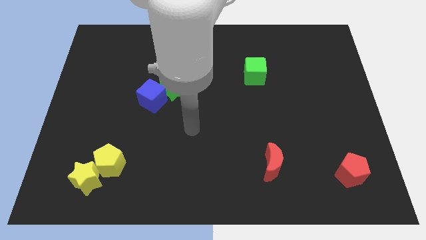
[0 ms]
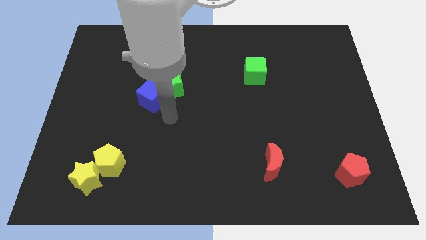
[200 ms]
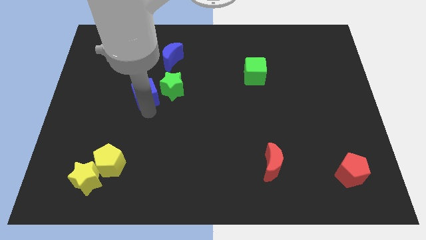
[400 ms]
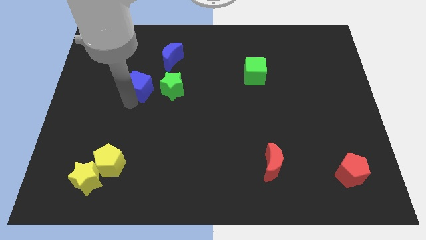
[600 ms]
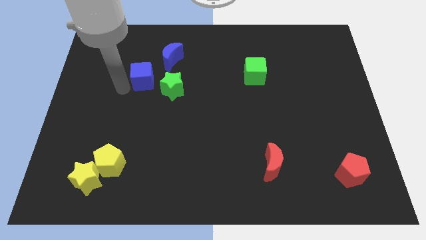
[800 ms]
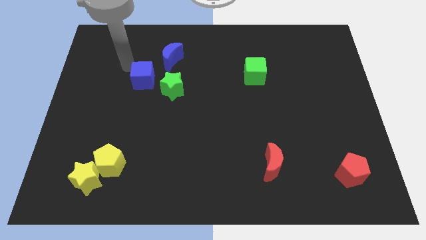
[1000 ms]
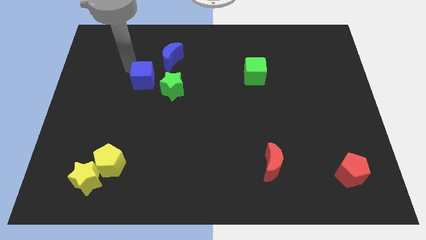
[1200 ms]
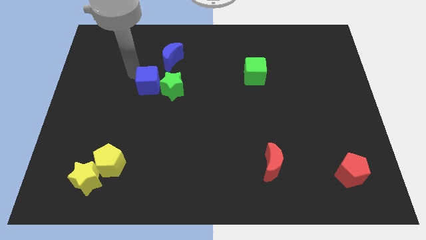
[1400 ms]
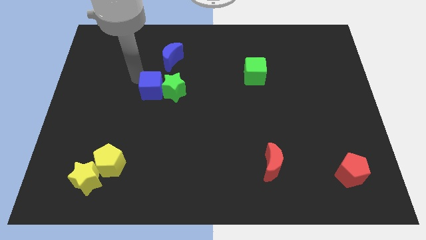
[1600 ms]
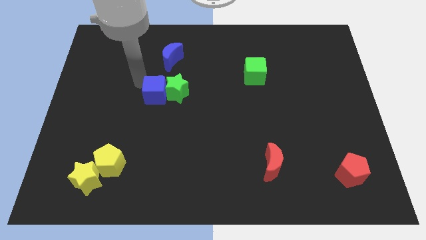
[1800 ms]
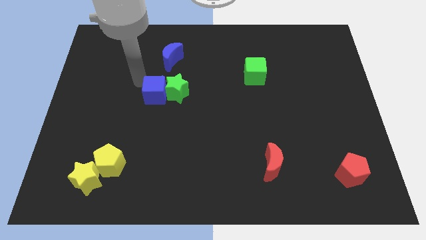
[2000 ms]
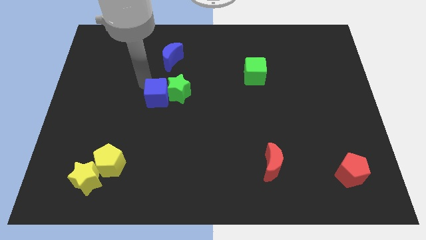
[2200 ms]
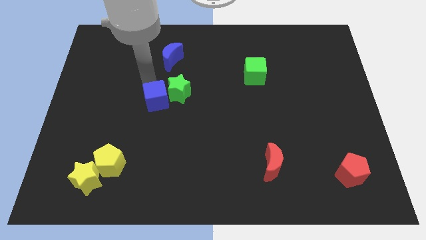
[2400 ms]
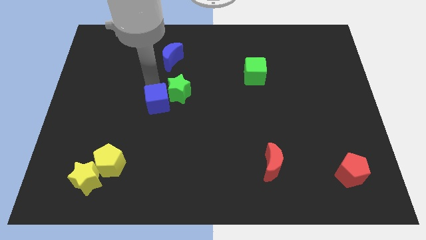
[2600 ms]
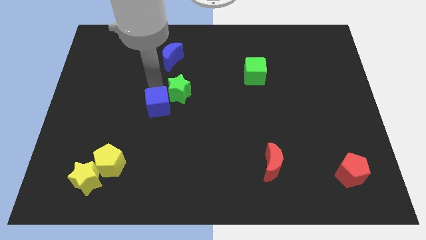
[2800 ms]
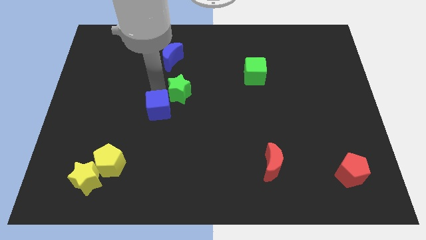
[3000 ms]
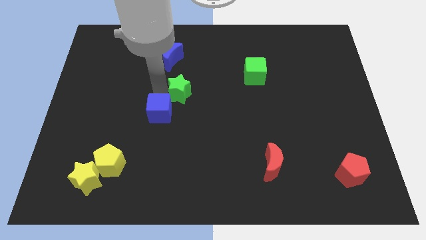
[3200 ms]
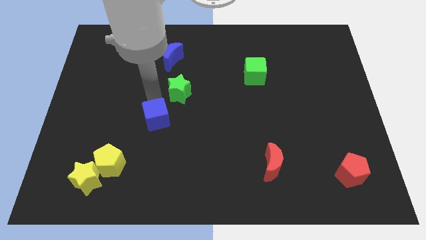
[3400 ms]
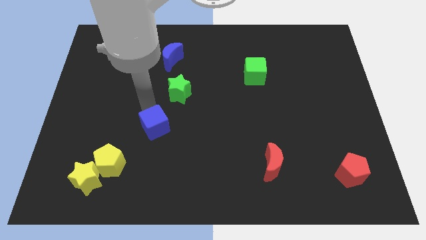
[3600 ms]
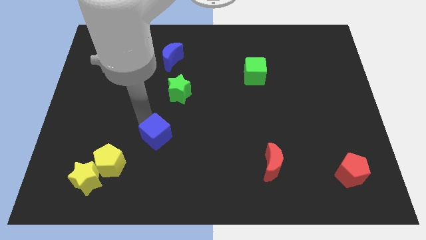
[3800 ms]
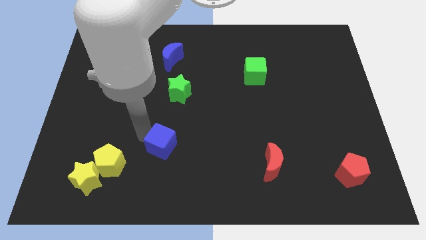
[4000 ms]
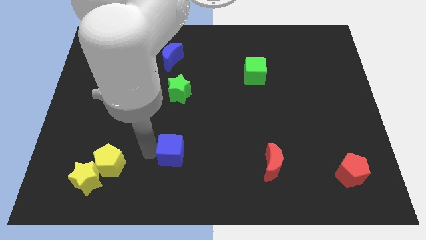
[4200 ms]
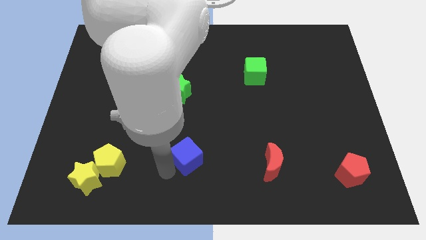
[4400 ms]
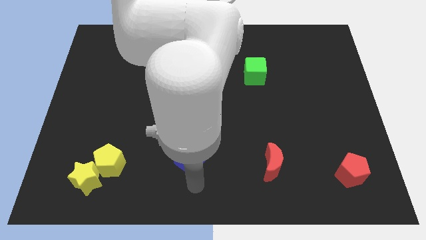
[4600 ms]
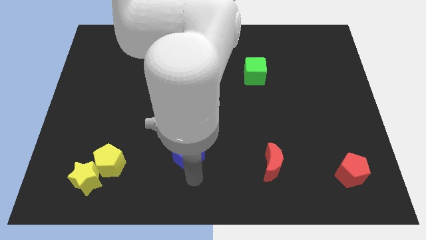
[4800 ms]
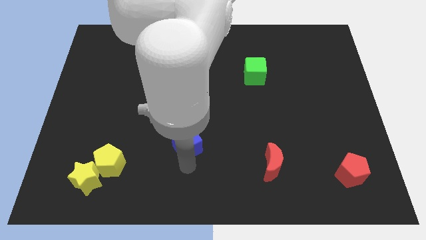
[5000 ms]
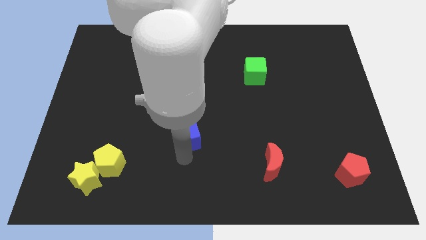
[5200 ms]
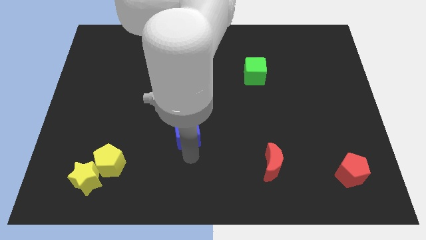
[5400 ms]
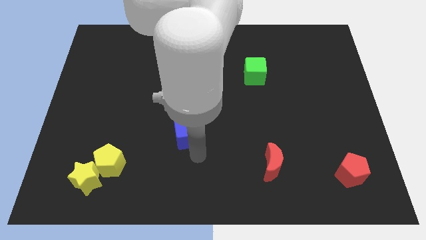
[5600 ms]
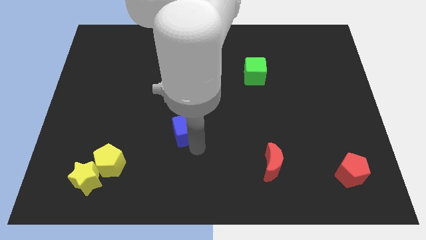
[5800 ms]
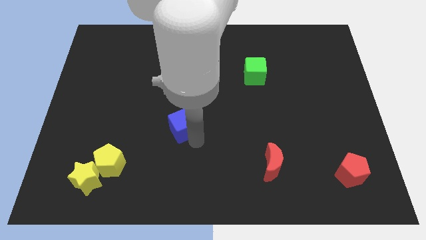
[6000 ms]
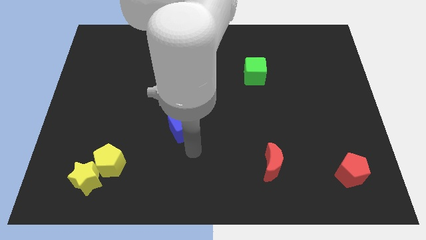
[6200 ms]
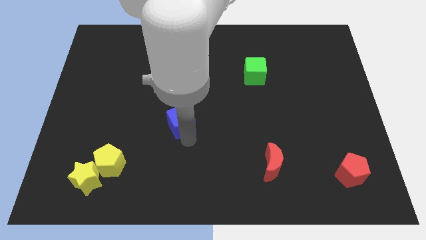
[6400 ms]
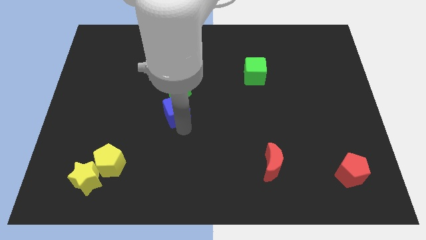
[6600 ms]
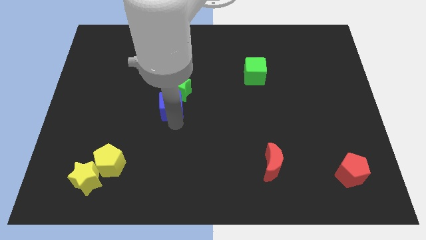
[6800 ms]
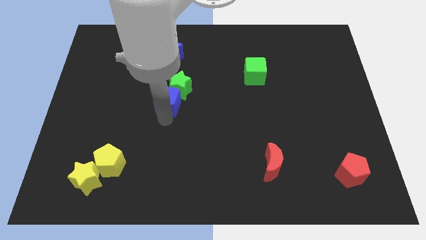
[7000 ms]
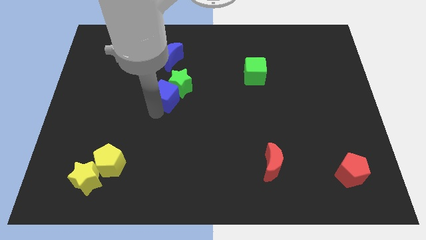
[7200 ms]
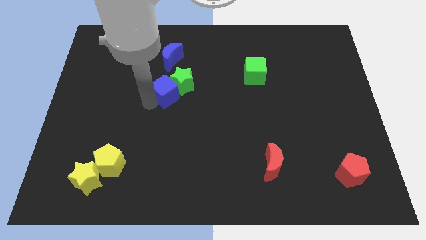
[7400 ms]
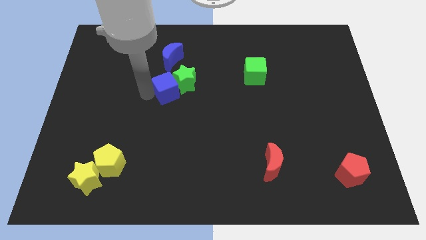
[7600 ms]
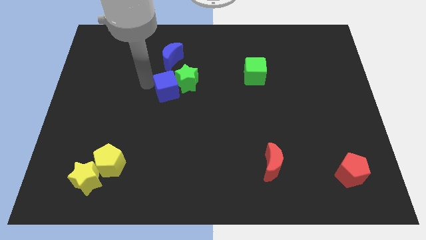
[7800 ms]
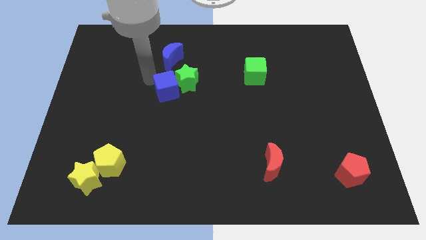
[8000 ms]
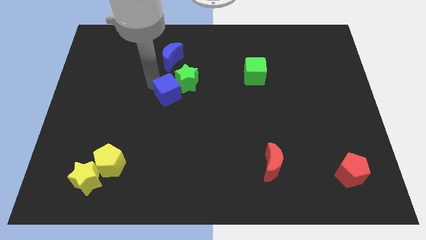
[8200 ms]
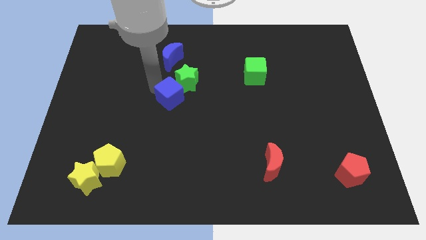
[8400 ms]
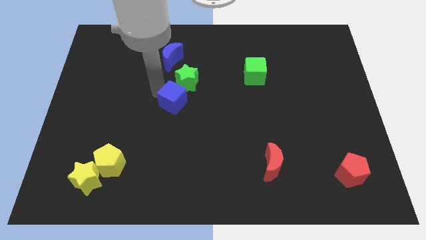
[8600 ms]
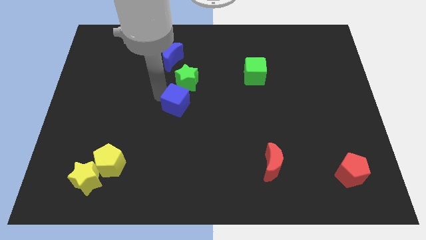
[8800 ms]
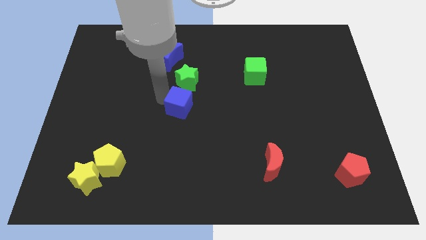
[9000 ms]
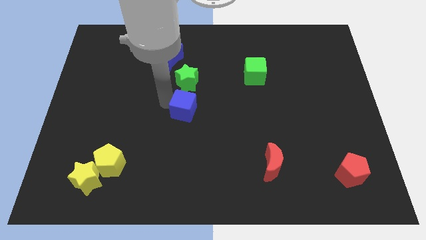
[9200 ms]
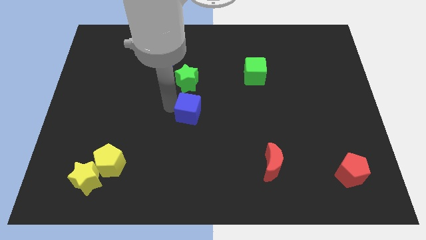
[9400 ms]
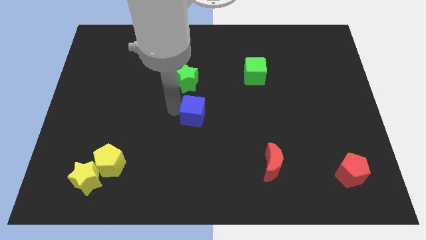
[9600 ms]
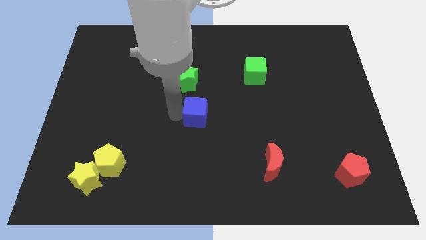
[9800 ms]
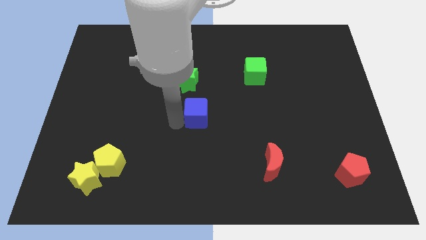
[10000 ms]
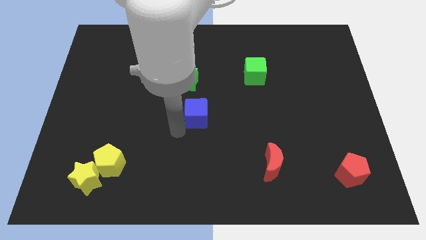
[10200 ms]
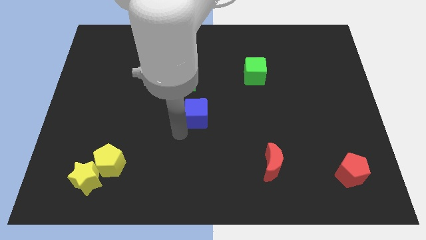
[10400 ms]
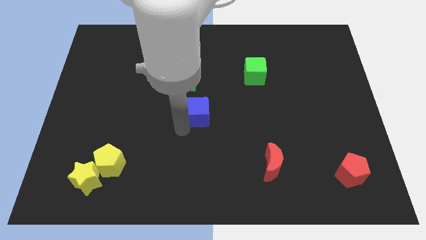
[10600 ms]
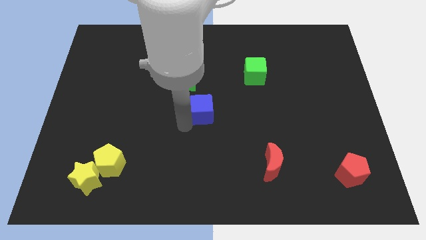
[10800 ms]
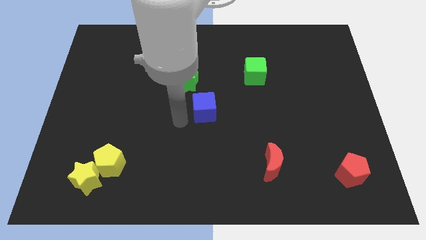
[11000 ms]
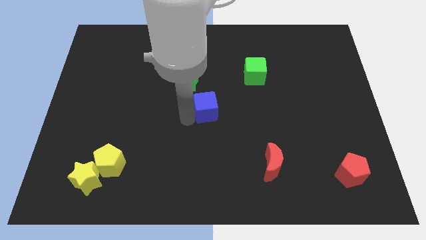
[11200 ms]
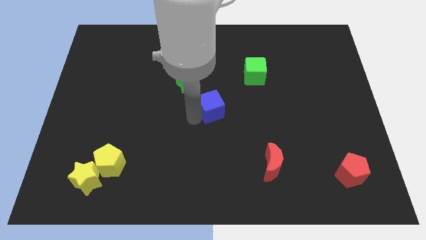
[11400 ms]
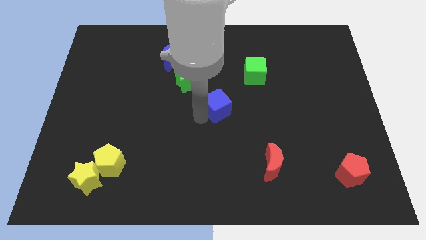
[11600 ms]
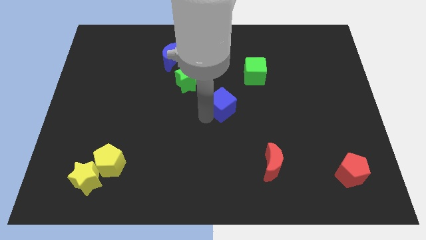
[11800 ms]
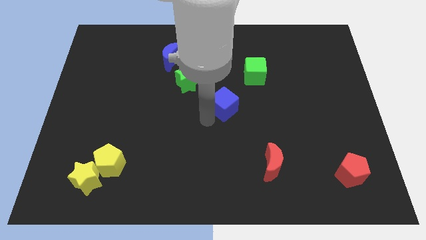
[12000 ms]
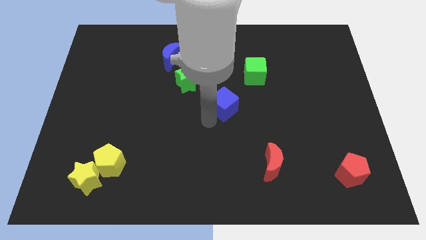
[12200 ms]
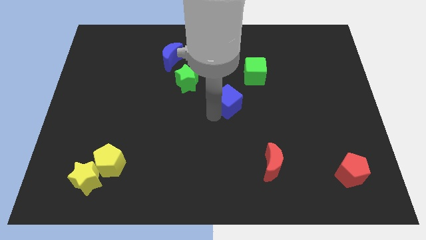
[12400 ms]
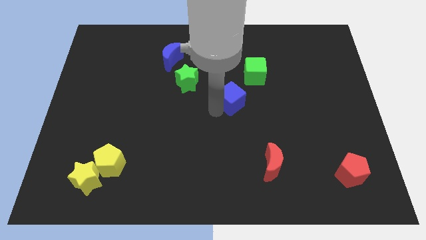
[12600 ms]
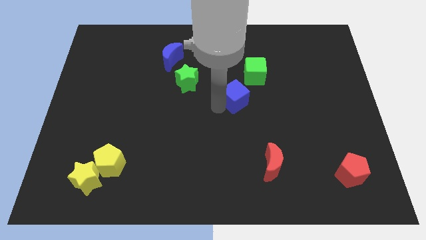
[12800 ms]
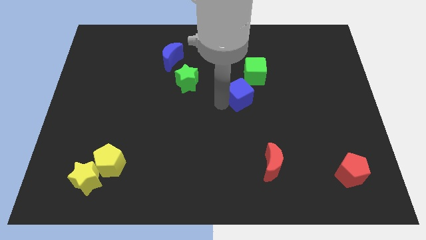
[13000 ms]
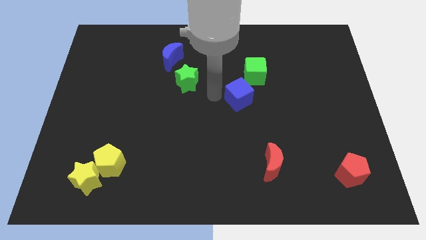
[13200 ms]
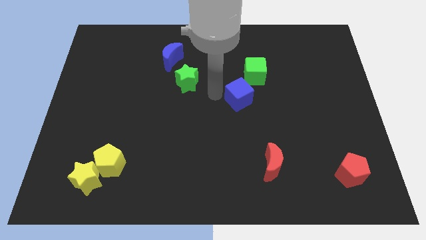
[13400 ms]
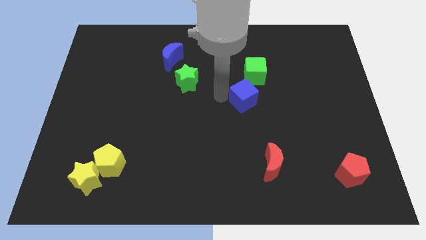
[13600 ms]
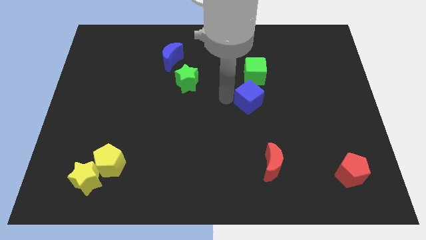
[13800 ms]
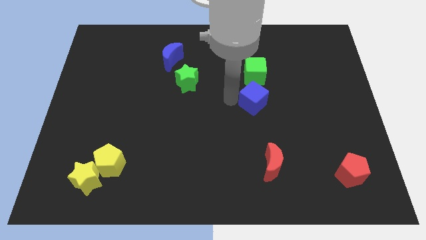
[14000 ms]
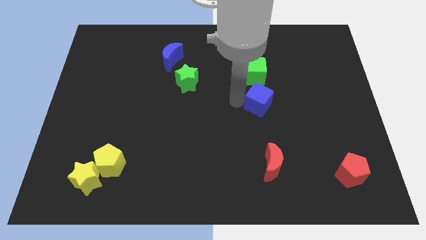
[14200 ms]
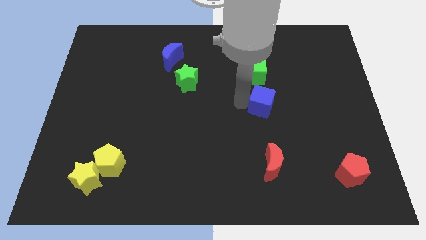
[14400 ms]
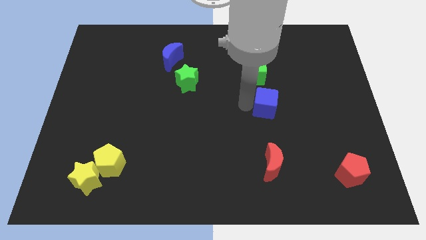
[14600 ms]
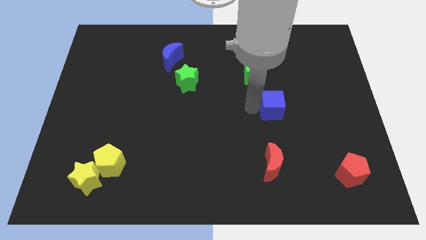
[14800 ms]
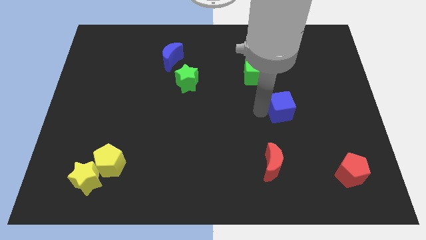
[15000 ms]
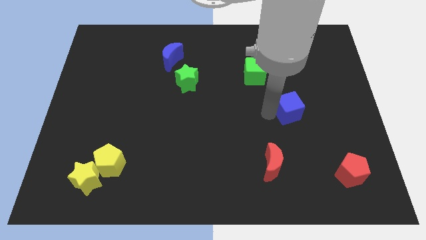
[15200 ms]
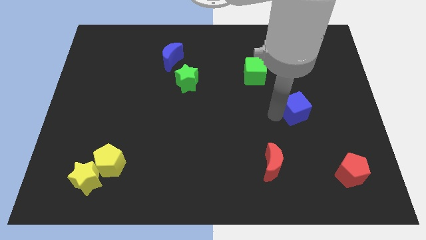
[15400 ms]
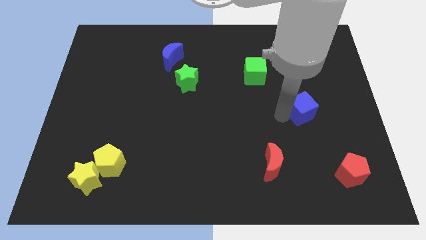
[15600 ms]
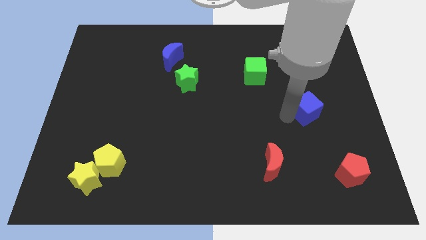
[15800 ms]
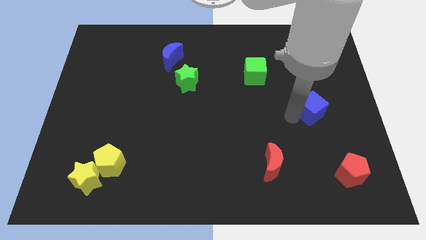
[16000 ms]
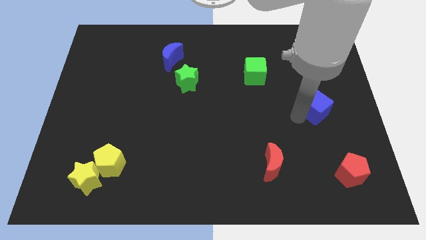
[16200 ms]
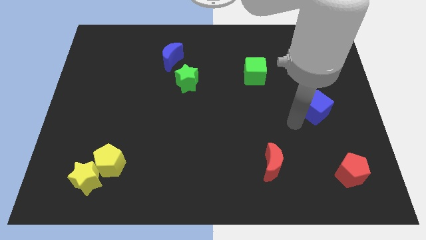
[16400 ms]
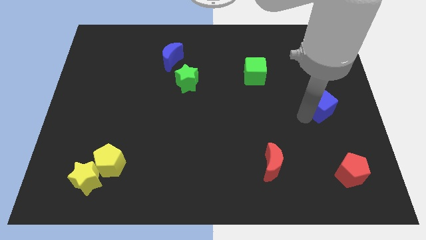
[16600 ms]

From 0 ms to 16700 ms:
push the blue cube to the right side of the board
